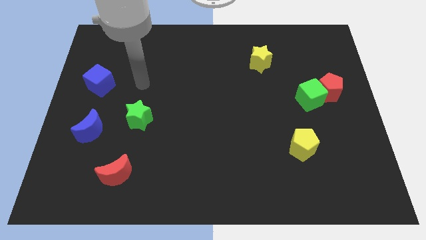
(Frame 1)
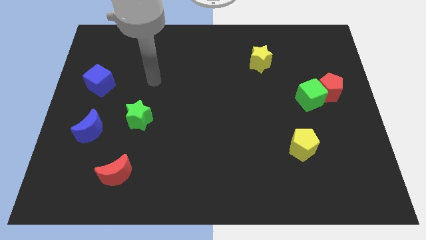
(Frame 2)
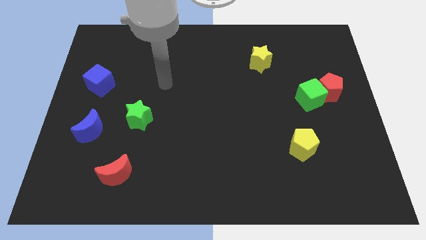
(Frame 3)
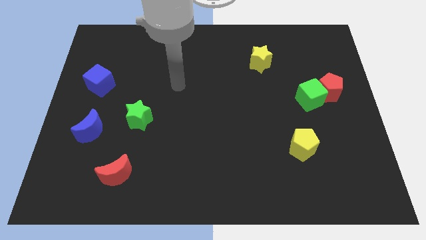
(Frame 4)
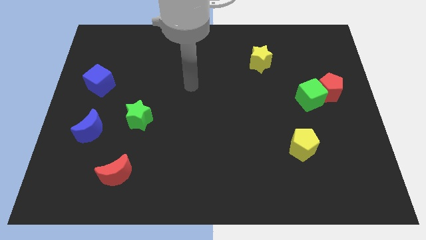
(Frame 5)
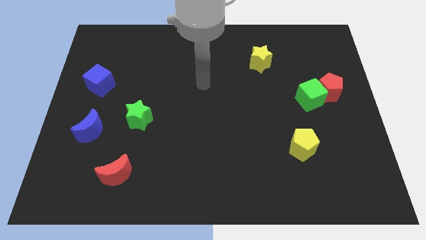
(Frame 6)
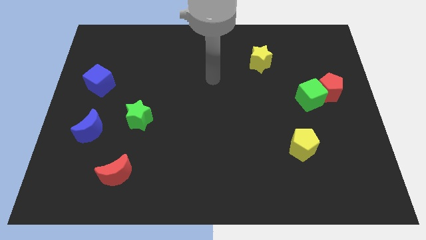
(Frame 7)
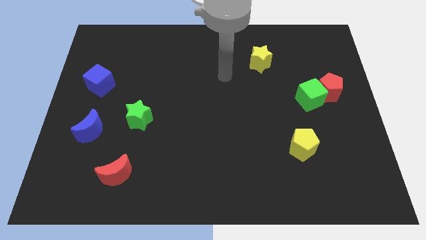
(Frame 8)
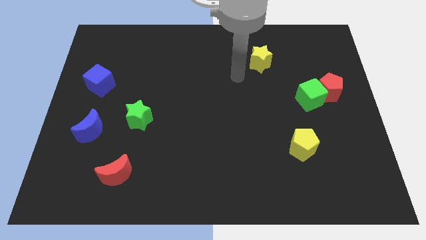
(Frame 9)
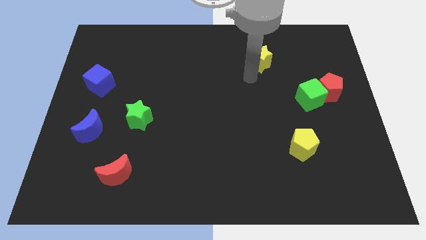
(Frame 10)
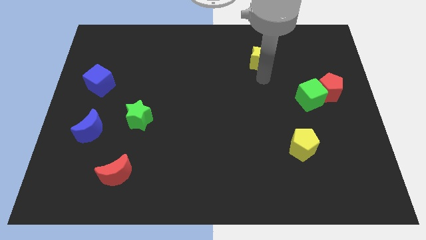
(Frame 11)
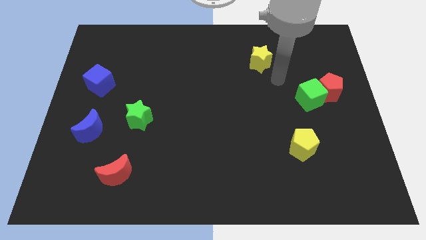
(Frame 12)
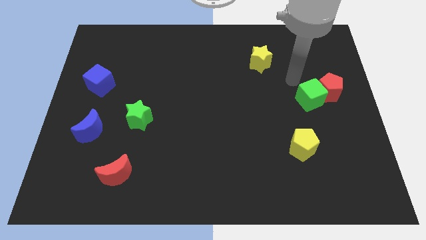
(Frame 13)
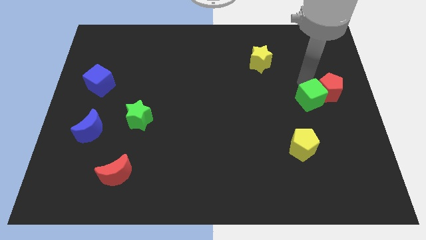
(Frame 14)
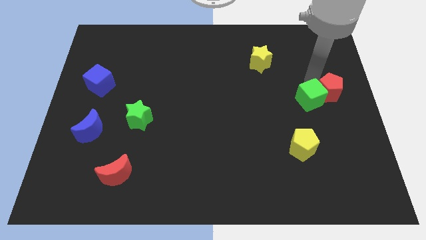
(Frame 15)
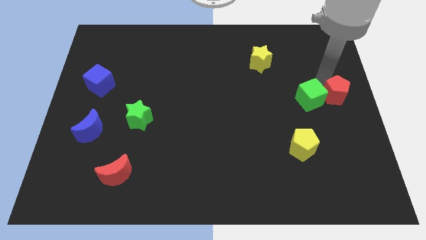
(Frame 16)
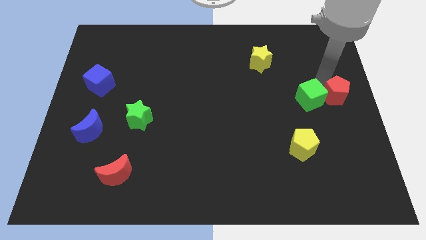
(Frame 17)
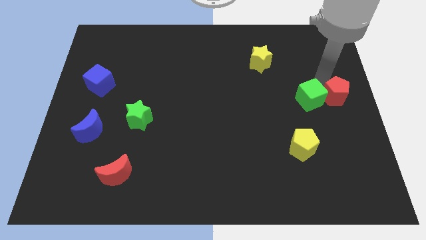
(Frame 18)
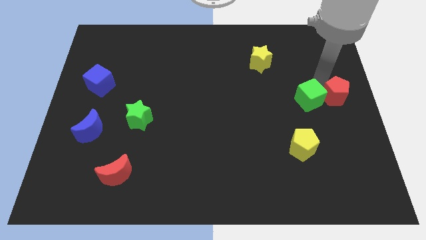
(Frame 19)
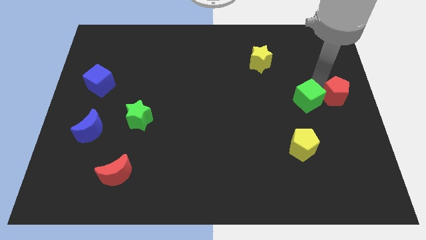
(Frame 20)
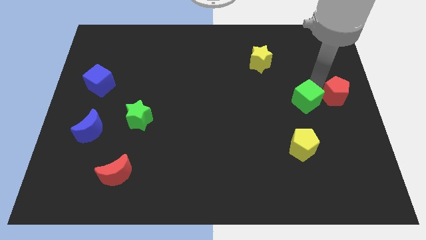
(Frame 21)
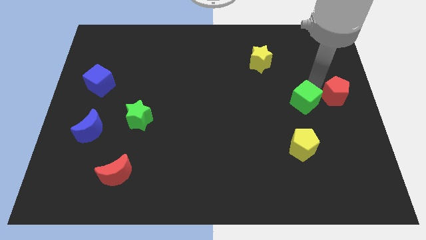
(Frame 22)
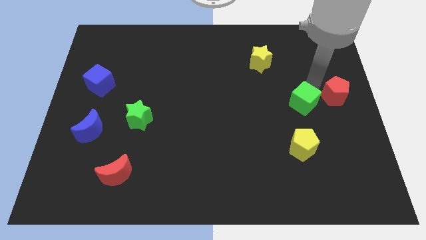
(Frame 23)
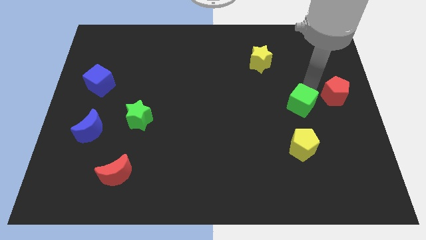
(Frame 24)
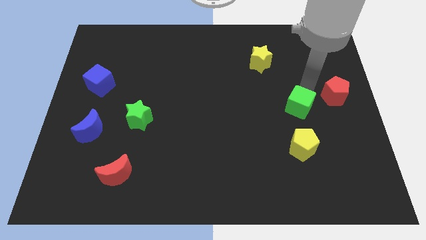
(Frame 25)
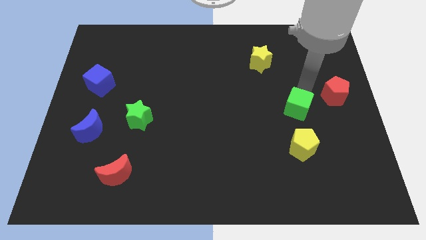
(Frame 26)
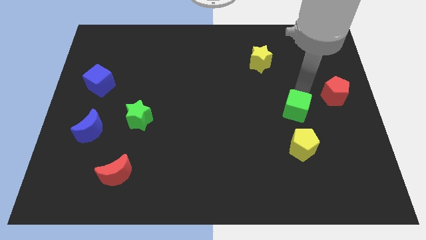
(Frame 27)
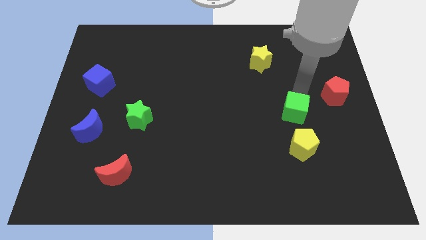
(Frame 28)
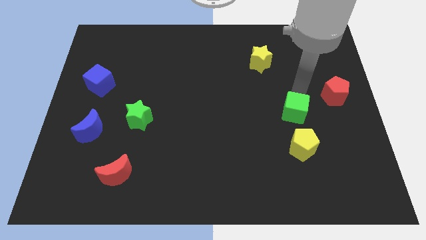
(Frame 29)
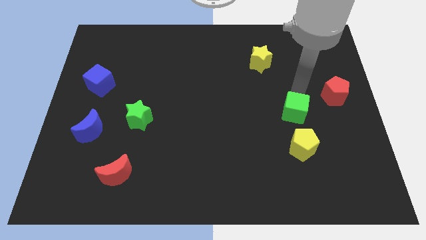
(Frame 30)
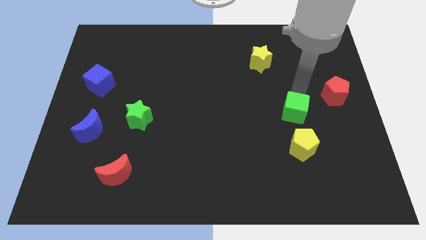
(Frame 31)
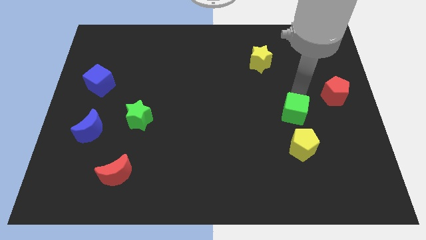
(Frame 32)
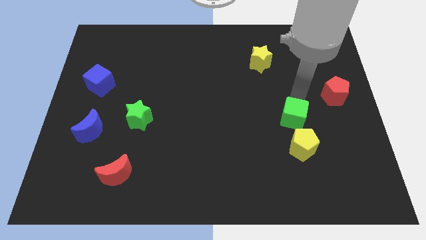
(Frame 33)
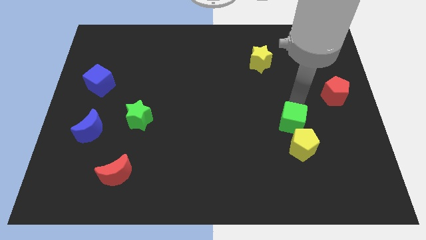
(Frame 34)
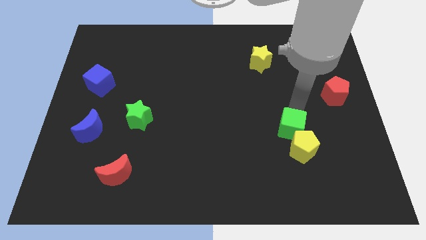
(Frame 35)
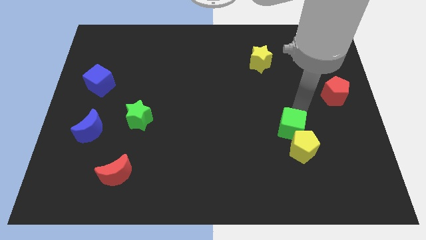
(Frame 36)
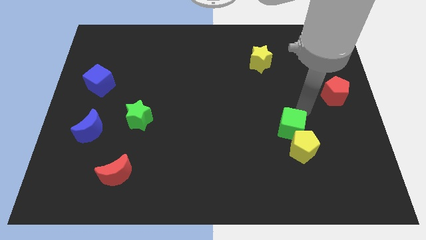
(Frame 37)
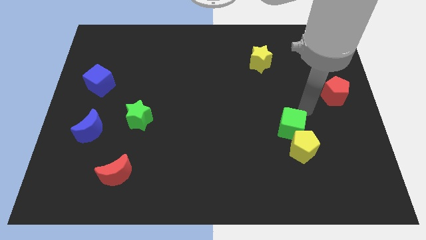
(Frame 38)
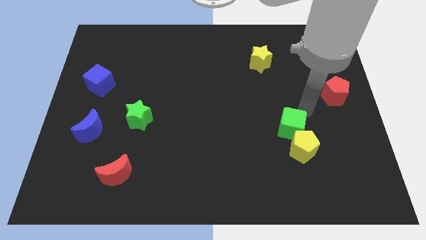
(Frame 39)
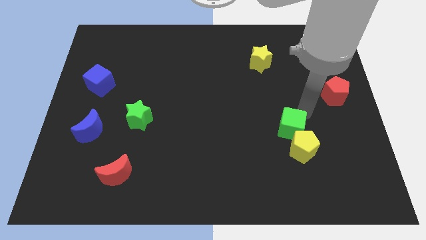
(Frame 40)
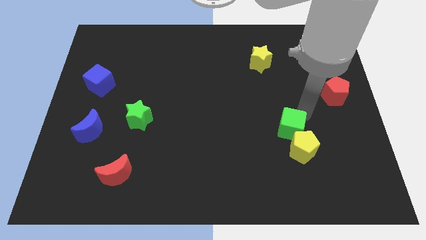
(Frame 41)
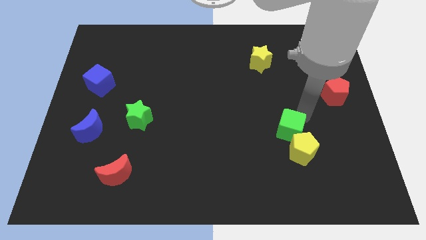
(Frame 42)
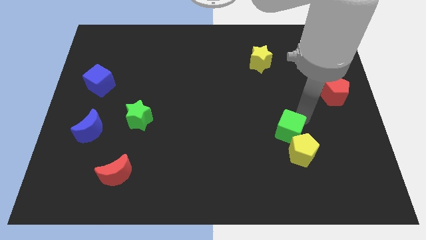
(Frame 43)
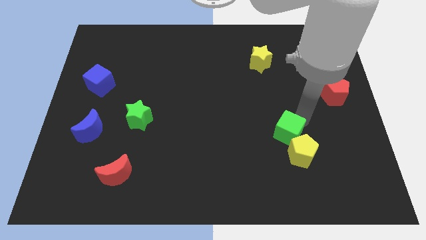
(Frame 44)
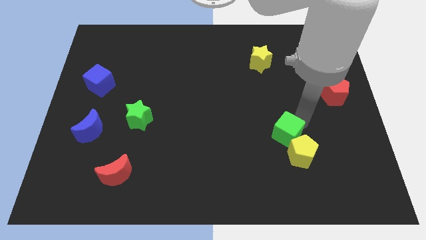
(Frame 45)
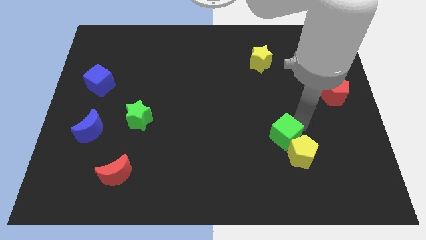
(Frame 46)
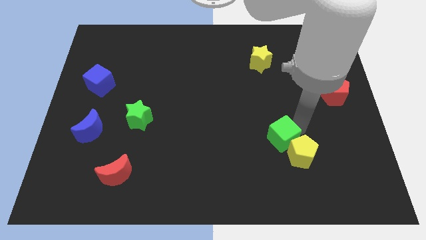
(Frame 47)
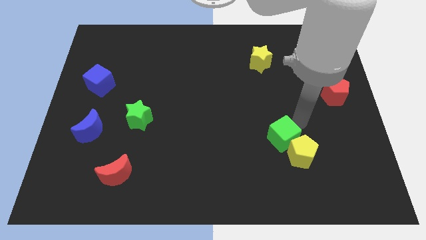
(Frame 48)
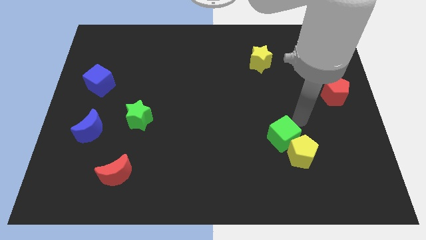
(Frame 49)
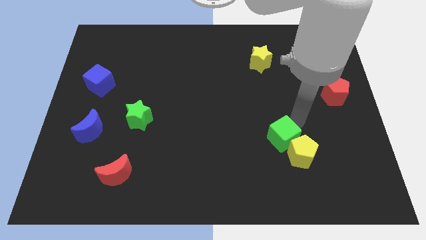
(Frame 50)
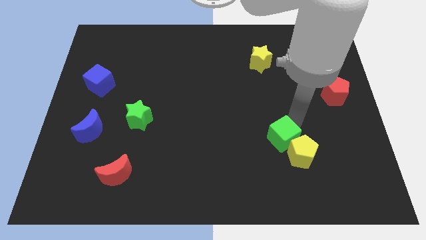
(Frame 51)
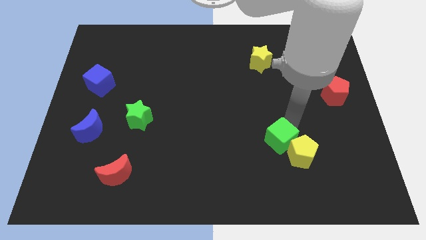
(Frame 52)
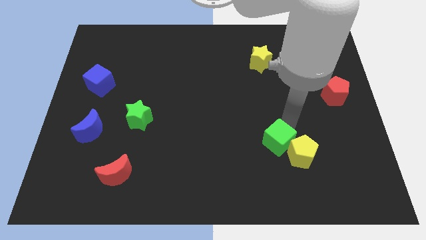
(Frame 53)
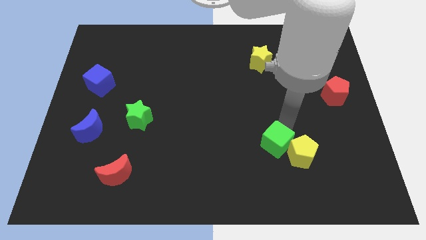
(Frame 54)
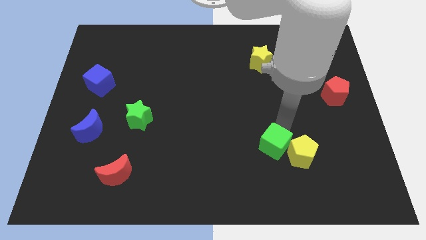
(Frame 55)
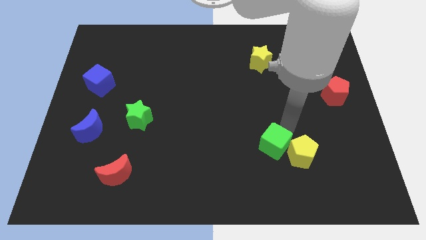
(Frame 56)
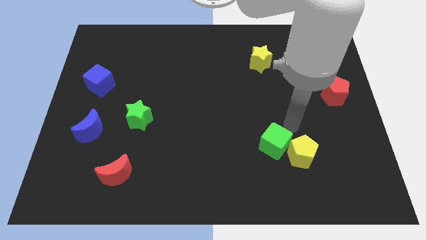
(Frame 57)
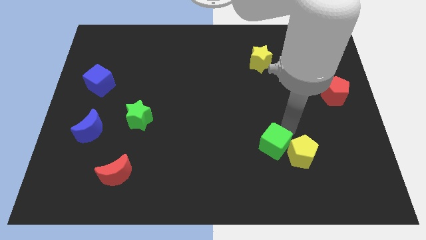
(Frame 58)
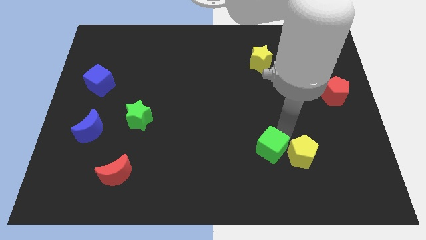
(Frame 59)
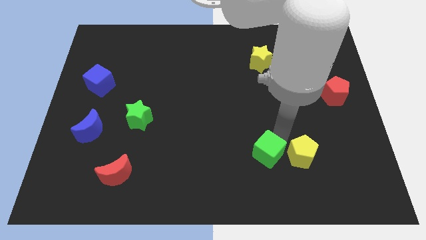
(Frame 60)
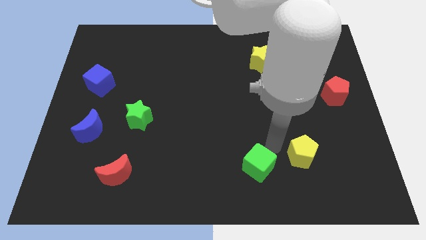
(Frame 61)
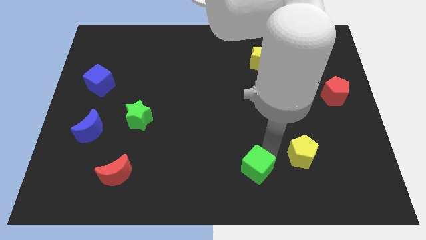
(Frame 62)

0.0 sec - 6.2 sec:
move the green cube to the bottom side
